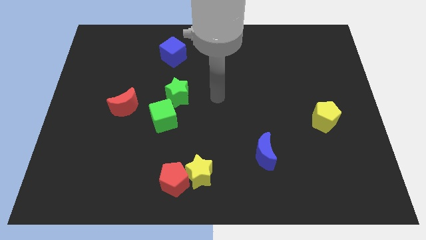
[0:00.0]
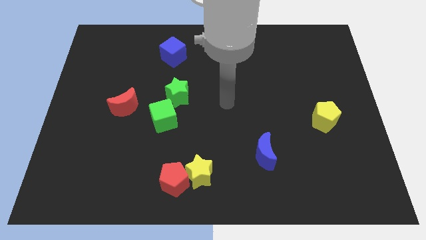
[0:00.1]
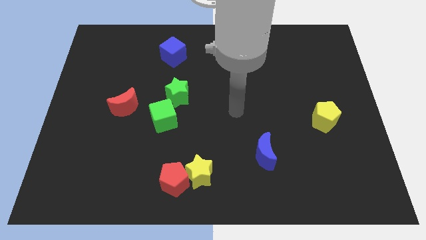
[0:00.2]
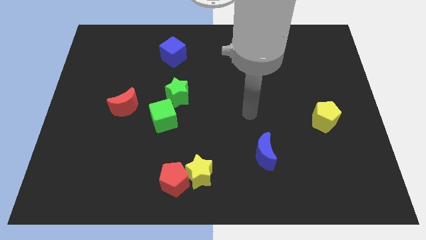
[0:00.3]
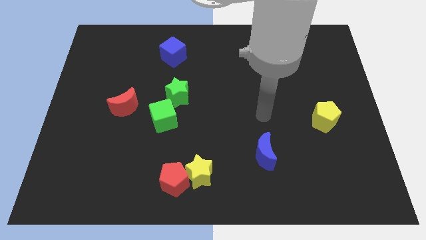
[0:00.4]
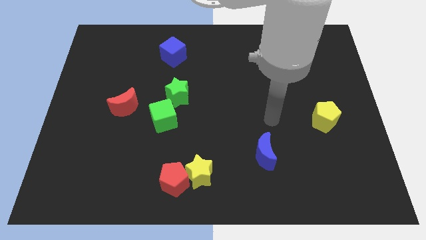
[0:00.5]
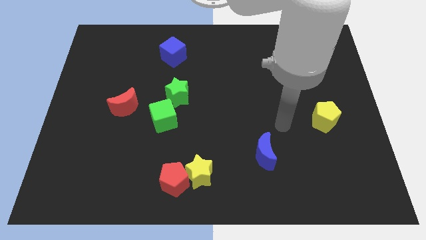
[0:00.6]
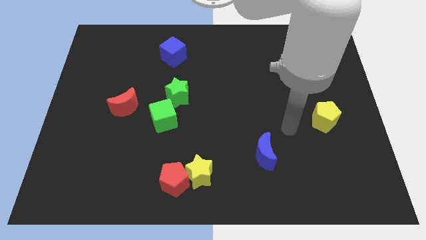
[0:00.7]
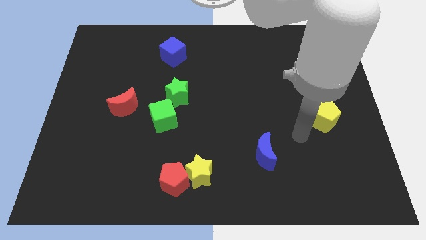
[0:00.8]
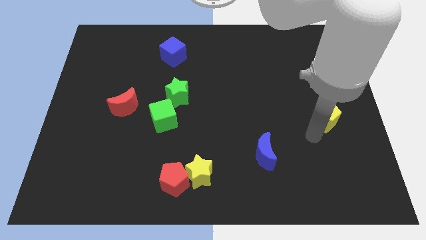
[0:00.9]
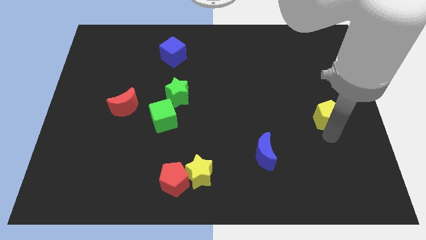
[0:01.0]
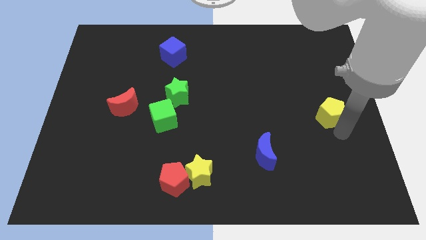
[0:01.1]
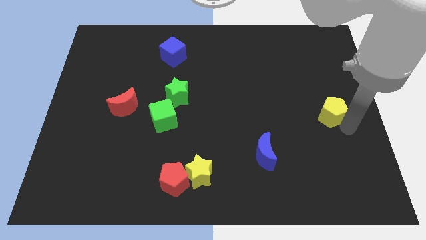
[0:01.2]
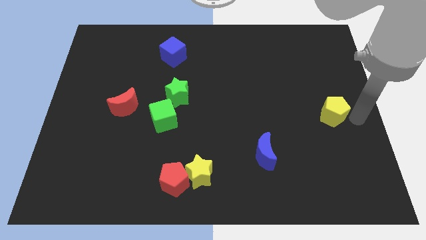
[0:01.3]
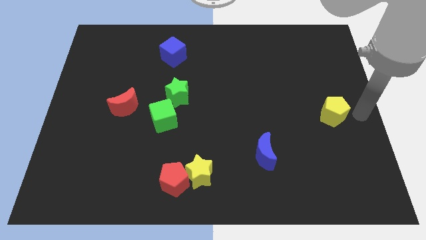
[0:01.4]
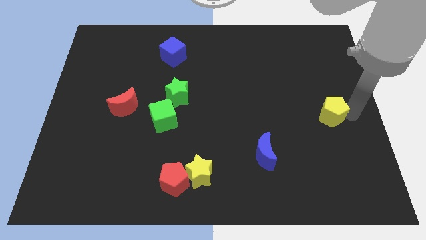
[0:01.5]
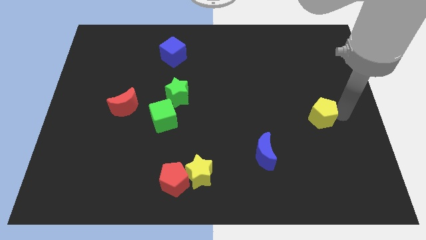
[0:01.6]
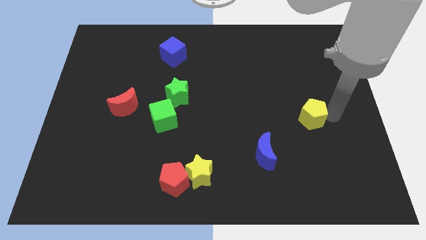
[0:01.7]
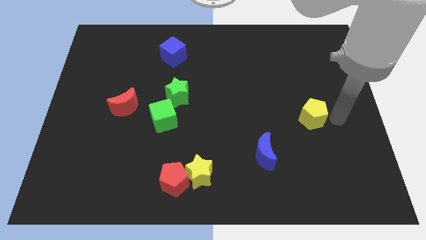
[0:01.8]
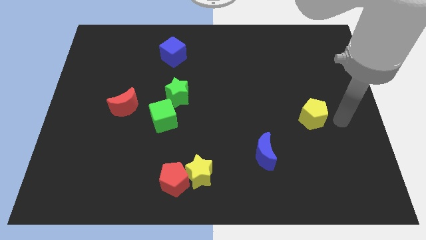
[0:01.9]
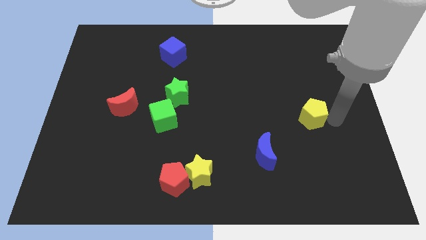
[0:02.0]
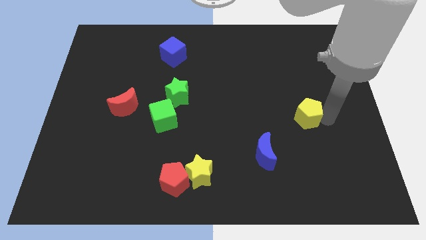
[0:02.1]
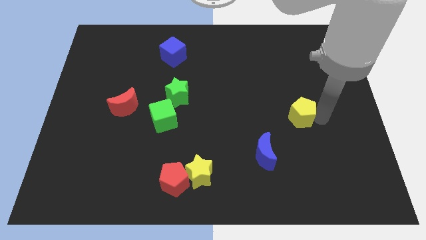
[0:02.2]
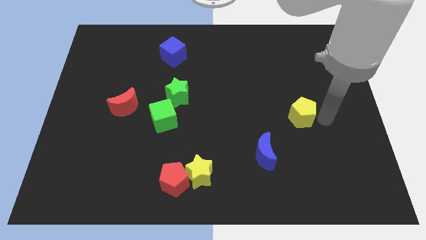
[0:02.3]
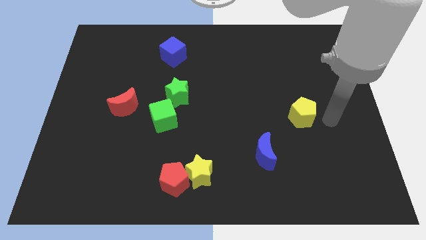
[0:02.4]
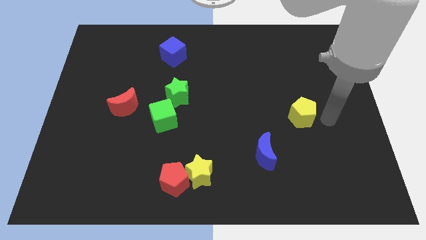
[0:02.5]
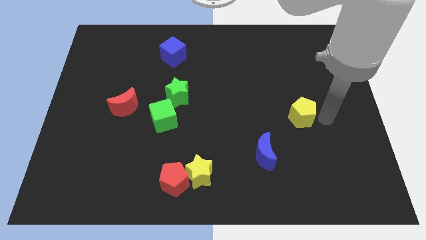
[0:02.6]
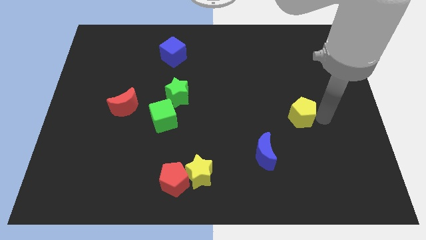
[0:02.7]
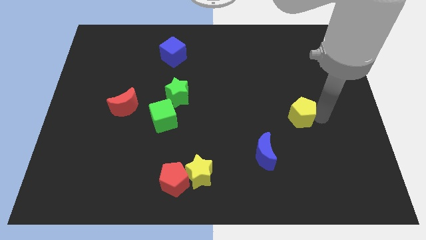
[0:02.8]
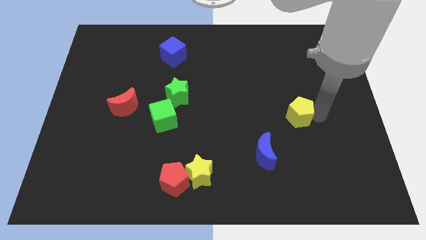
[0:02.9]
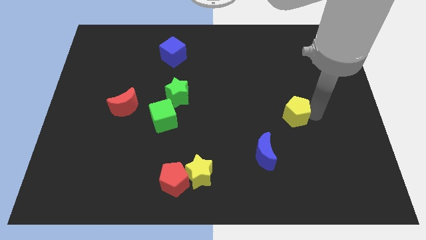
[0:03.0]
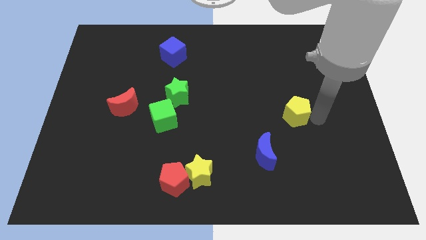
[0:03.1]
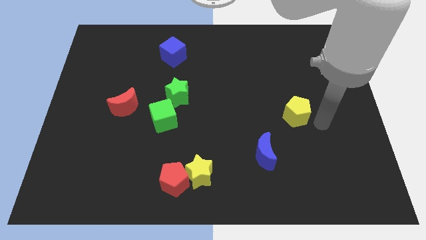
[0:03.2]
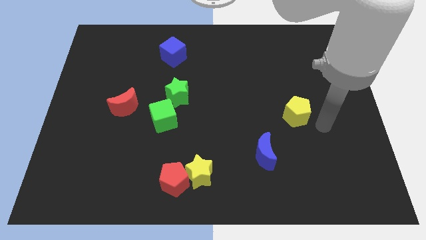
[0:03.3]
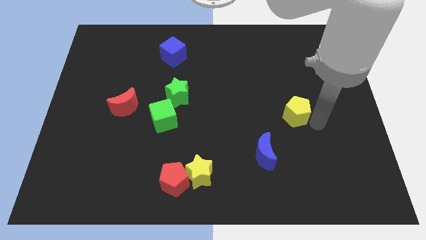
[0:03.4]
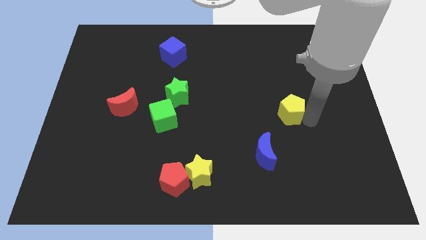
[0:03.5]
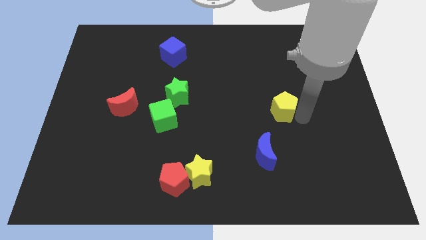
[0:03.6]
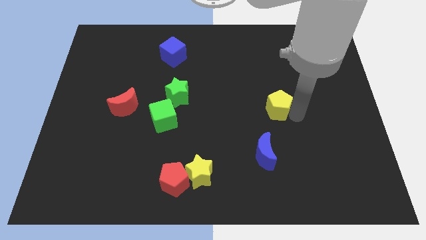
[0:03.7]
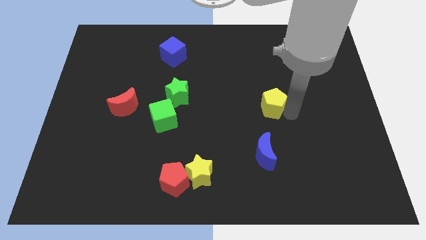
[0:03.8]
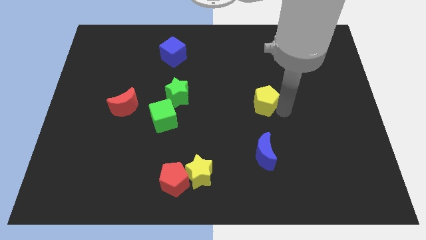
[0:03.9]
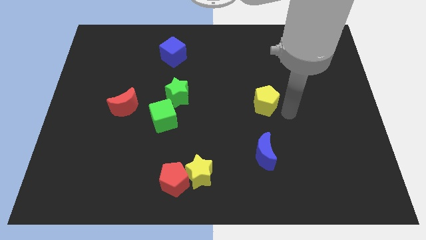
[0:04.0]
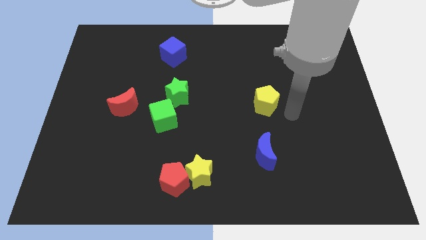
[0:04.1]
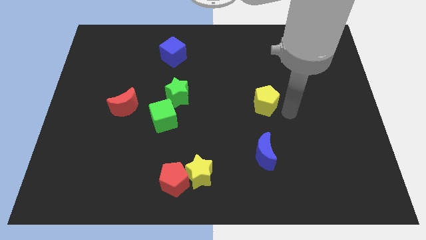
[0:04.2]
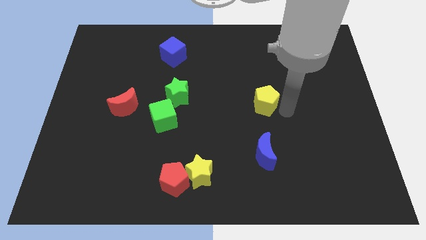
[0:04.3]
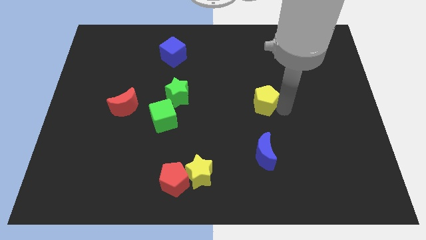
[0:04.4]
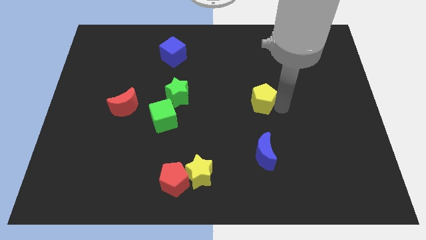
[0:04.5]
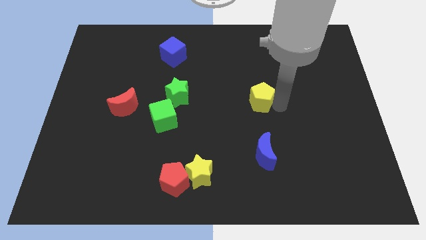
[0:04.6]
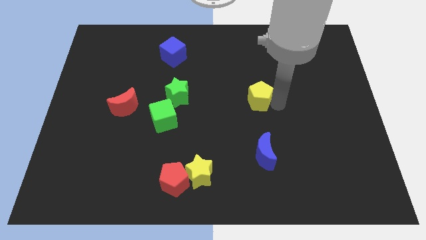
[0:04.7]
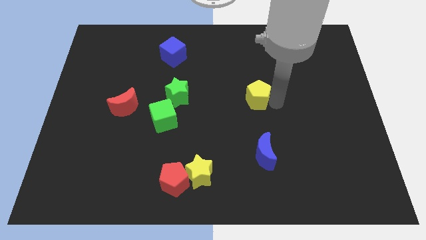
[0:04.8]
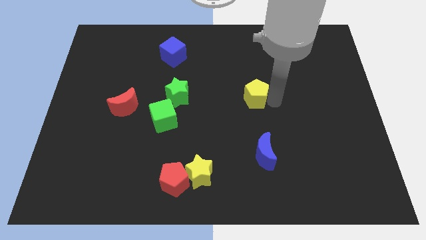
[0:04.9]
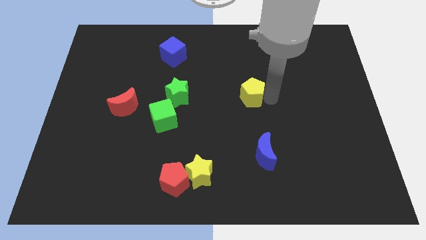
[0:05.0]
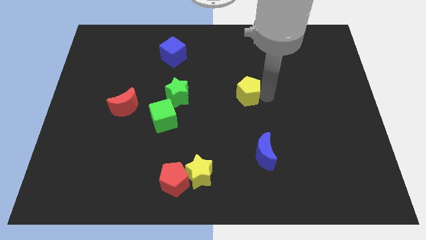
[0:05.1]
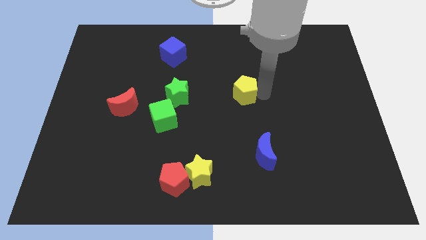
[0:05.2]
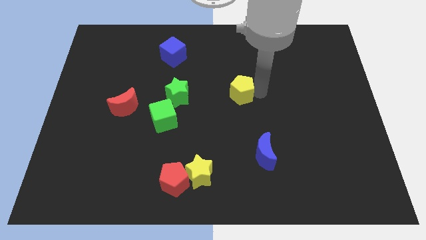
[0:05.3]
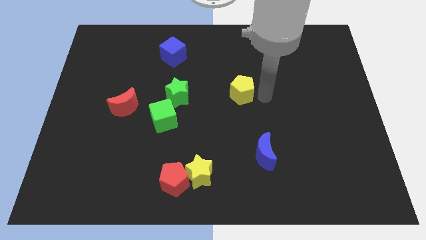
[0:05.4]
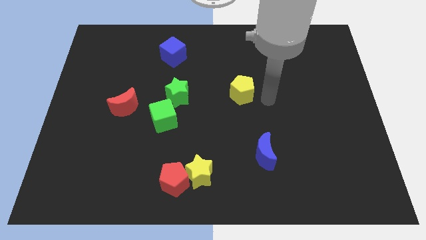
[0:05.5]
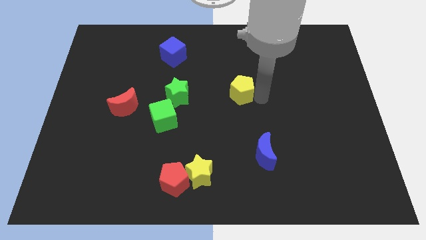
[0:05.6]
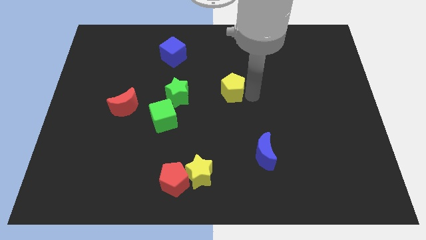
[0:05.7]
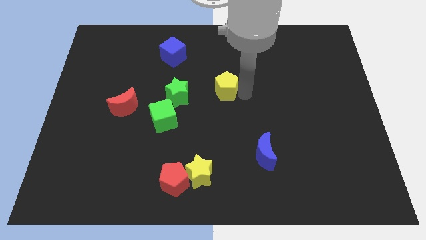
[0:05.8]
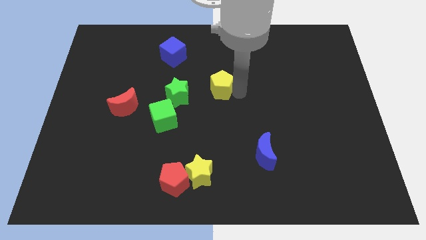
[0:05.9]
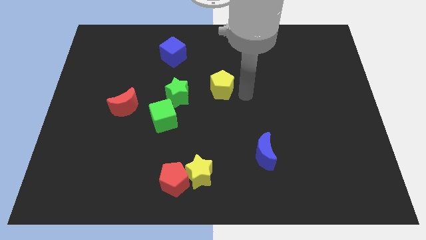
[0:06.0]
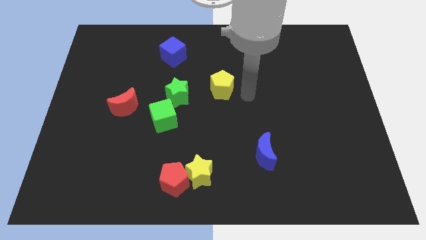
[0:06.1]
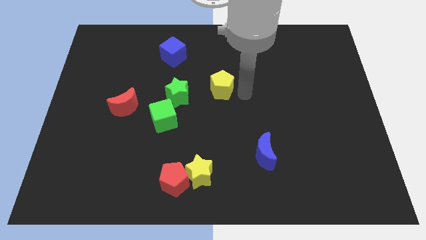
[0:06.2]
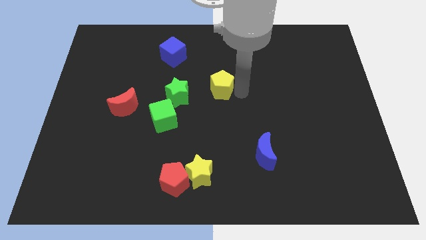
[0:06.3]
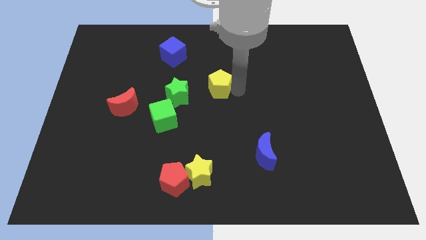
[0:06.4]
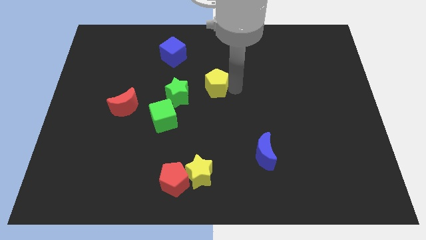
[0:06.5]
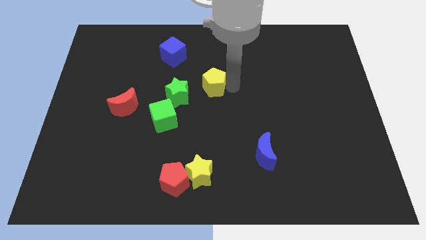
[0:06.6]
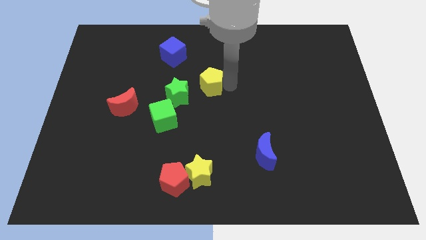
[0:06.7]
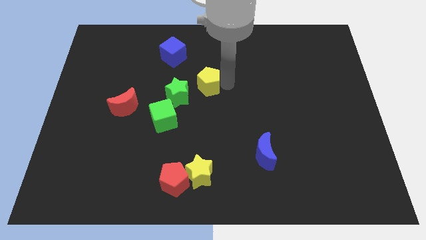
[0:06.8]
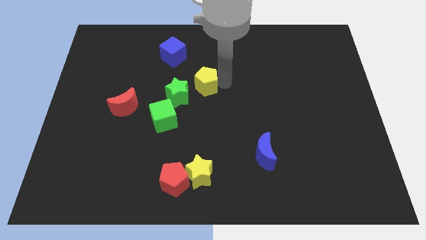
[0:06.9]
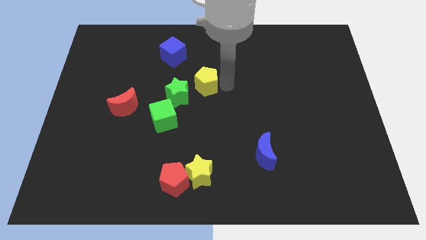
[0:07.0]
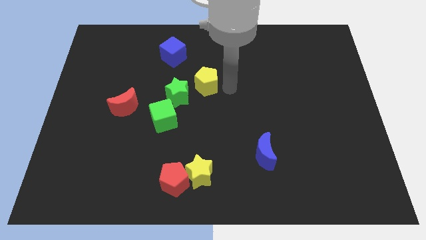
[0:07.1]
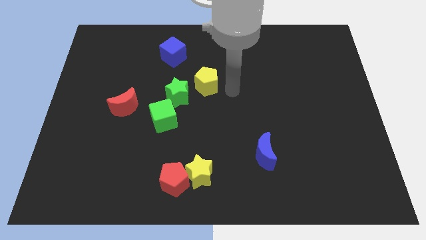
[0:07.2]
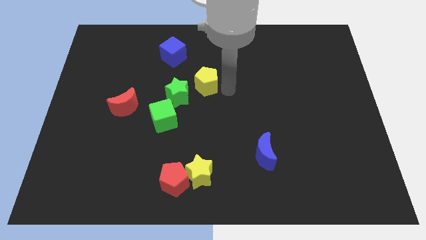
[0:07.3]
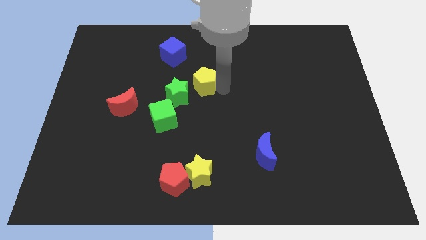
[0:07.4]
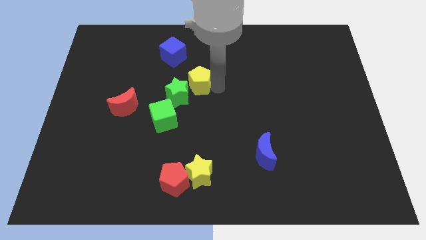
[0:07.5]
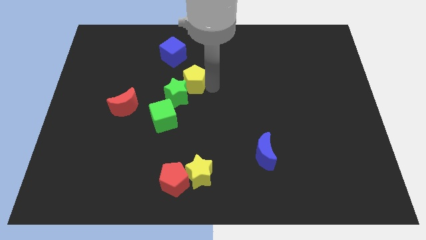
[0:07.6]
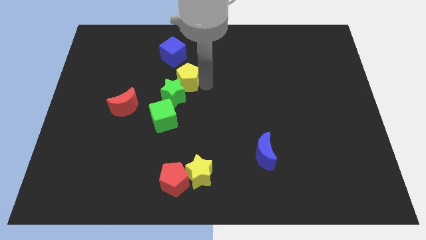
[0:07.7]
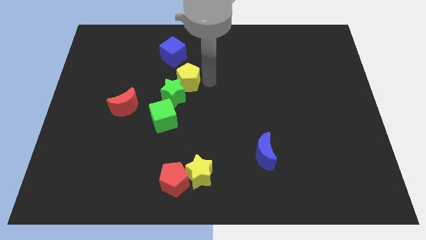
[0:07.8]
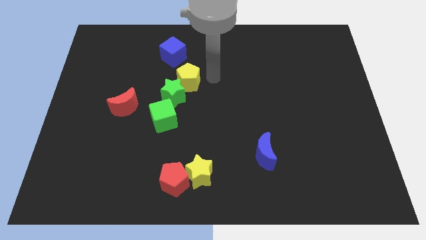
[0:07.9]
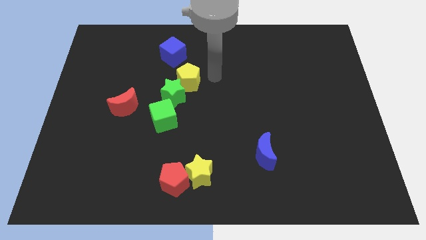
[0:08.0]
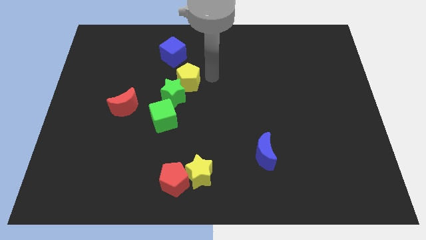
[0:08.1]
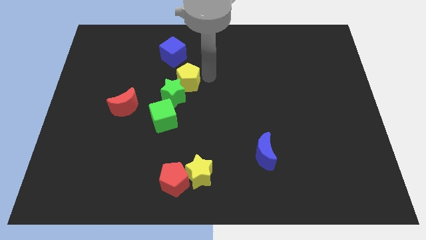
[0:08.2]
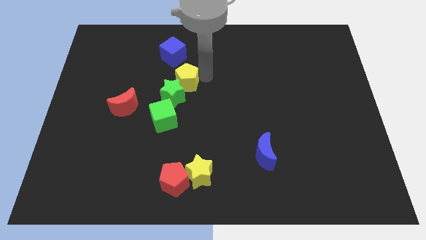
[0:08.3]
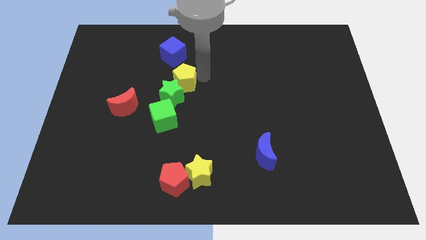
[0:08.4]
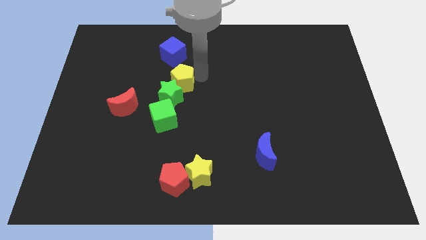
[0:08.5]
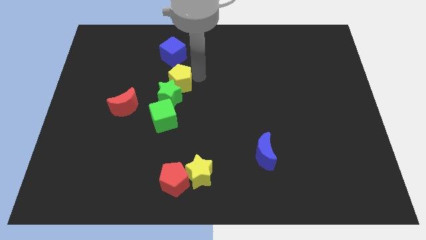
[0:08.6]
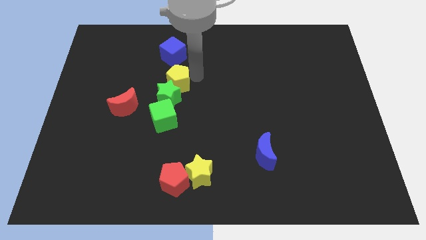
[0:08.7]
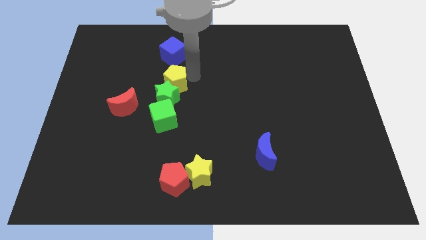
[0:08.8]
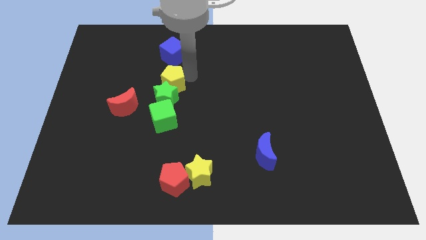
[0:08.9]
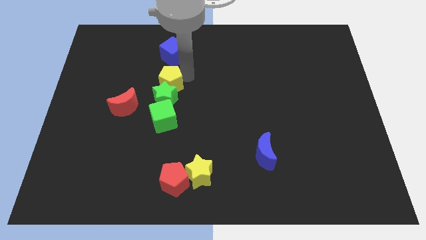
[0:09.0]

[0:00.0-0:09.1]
move the yellow pentagon to the top right of the red moon
